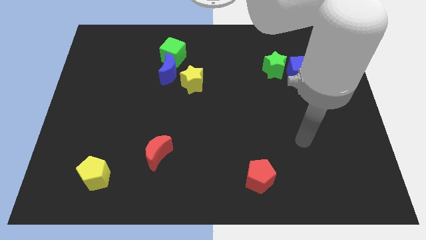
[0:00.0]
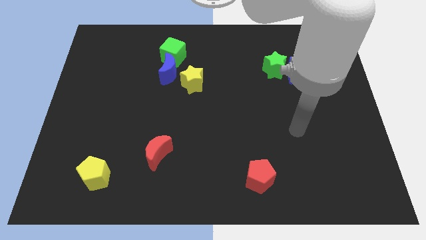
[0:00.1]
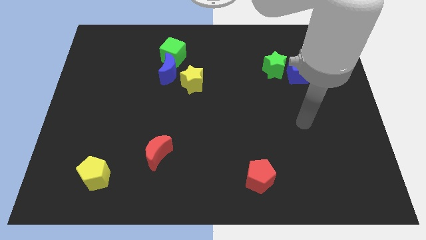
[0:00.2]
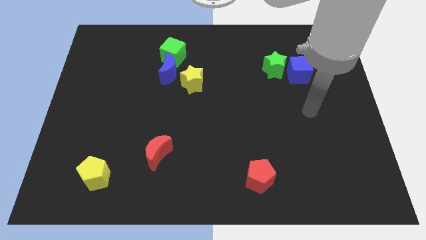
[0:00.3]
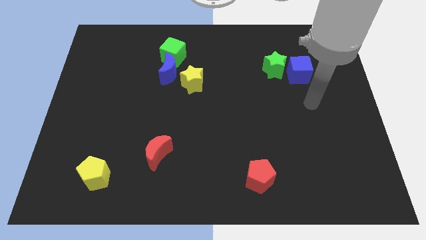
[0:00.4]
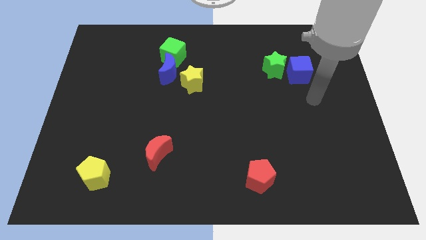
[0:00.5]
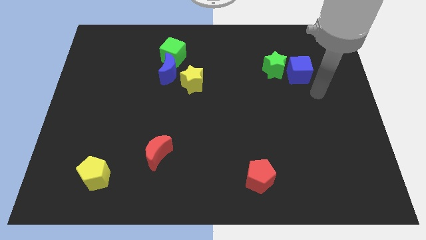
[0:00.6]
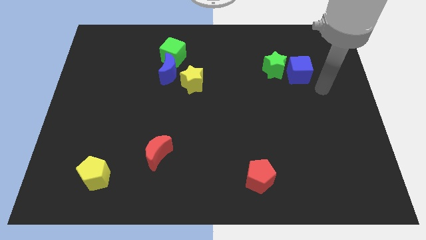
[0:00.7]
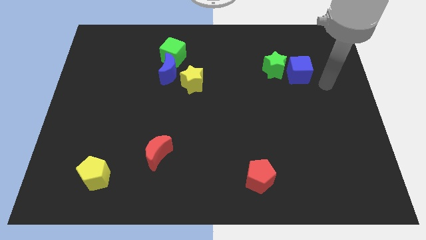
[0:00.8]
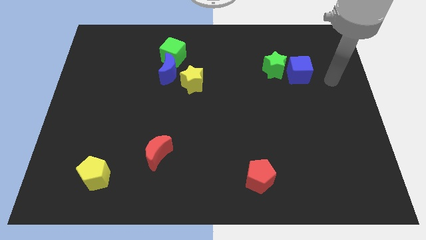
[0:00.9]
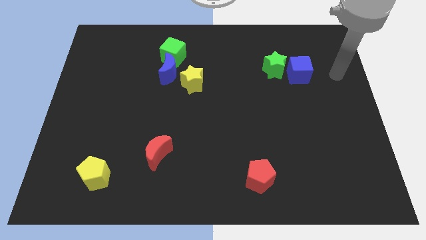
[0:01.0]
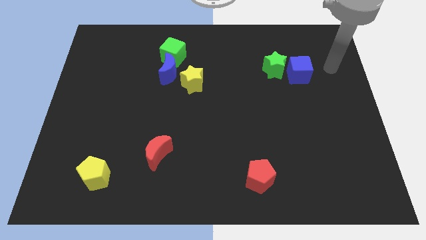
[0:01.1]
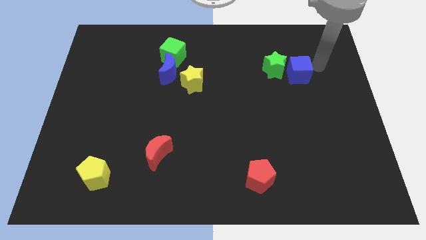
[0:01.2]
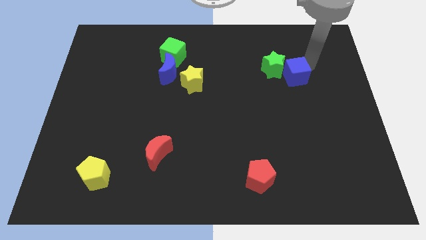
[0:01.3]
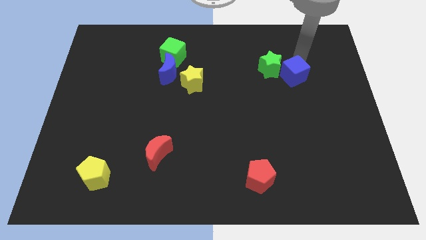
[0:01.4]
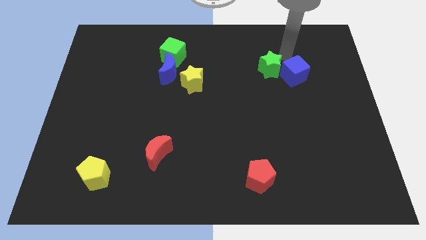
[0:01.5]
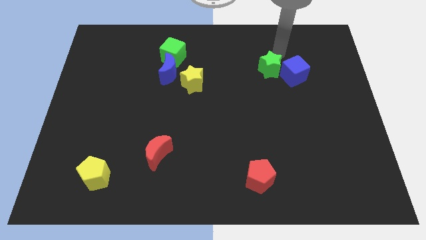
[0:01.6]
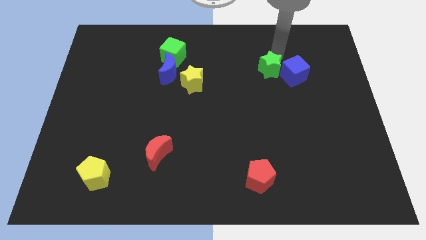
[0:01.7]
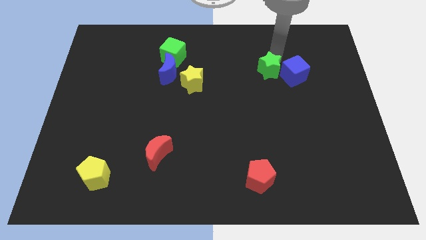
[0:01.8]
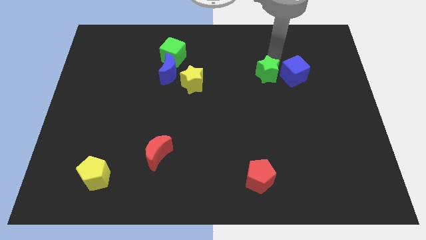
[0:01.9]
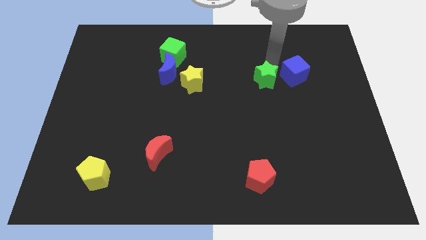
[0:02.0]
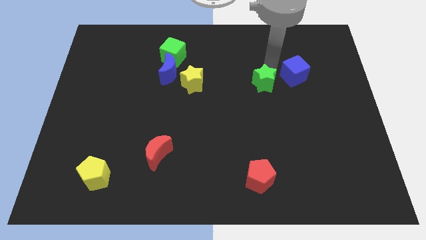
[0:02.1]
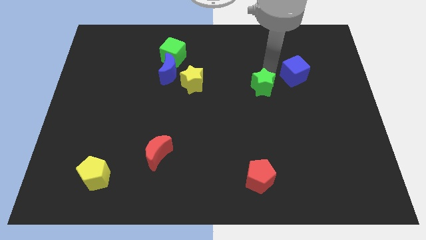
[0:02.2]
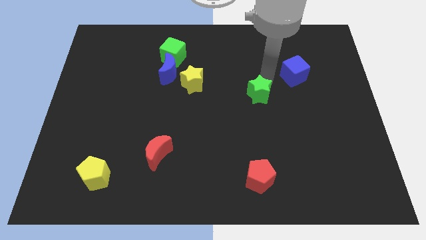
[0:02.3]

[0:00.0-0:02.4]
push the green star somewhat downwards and then left

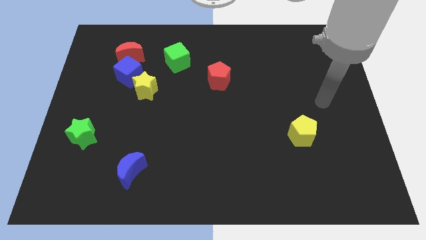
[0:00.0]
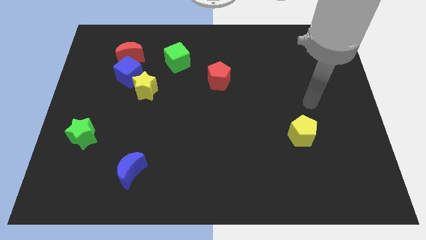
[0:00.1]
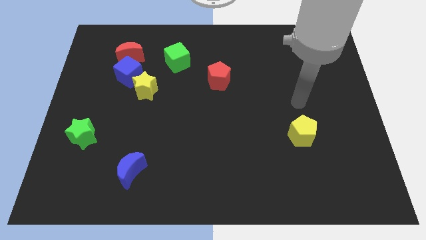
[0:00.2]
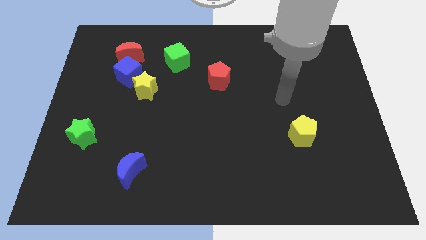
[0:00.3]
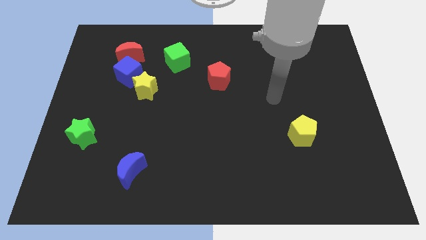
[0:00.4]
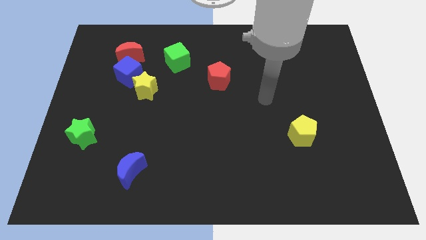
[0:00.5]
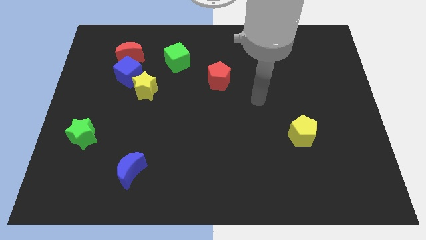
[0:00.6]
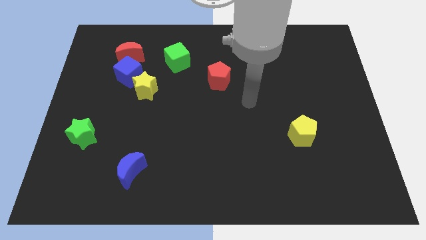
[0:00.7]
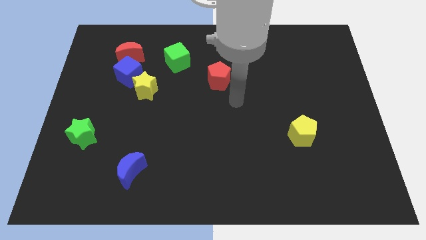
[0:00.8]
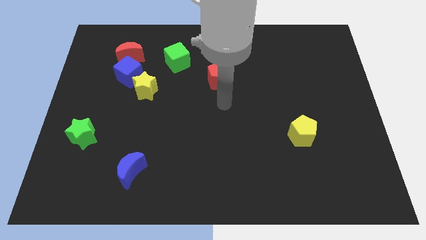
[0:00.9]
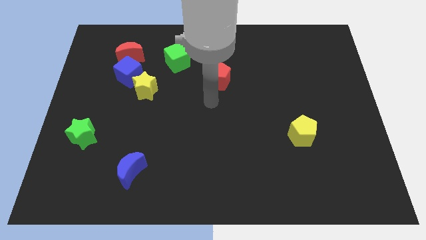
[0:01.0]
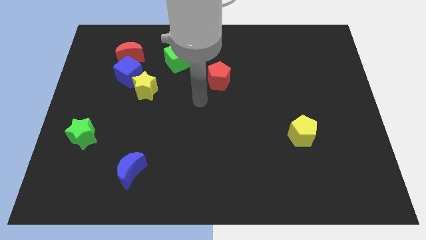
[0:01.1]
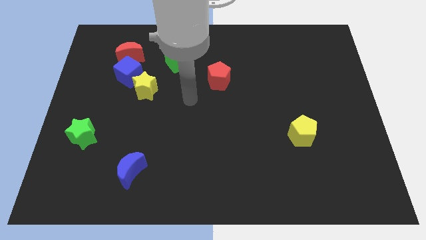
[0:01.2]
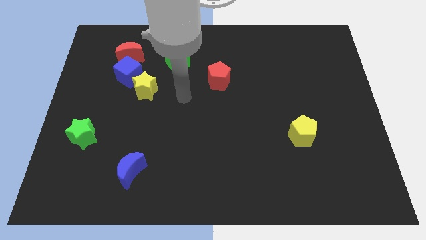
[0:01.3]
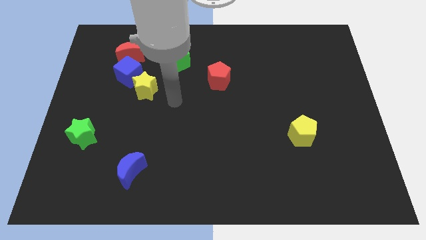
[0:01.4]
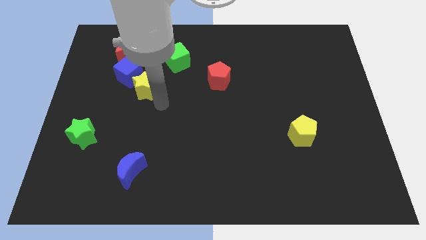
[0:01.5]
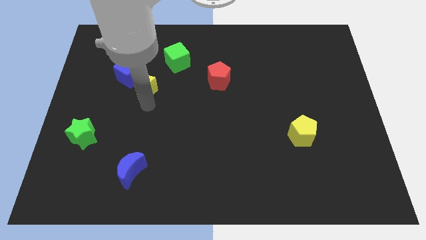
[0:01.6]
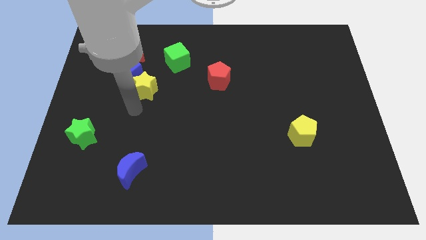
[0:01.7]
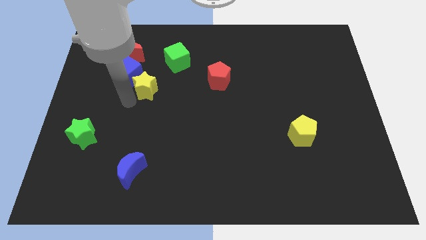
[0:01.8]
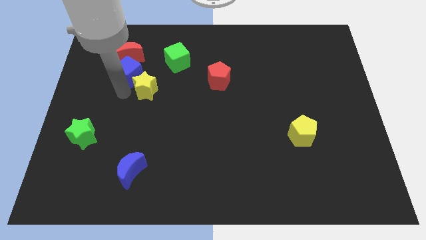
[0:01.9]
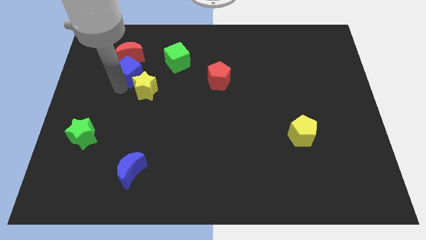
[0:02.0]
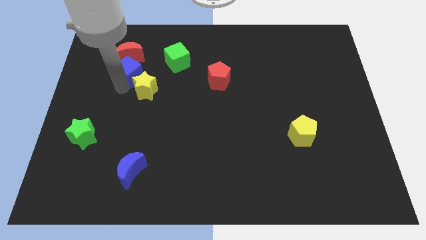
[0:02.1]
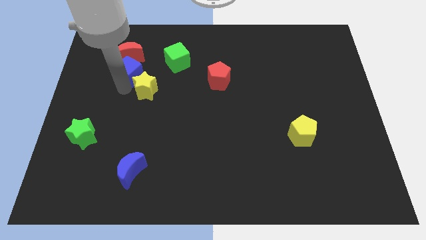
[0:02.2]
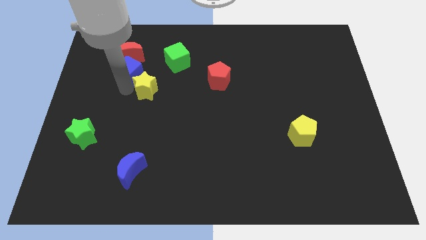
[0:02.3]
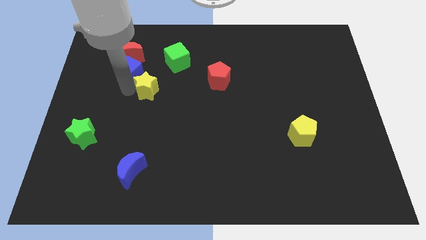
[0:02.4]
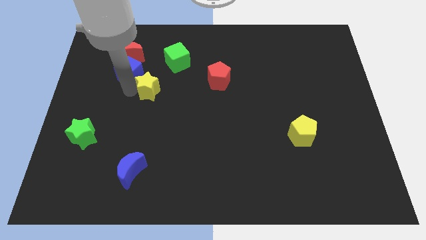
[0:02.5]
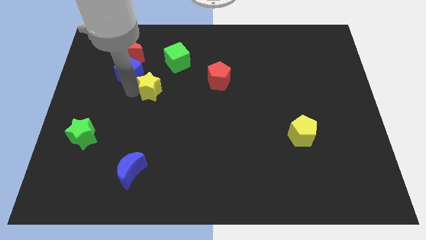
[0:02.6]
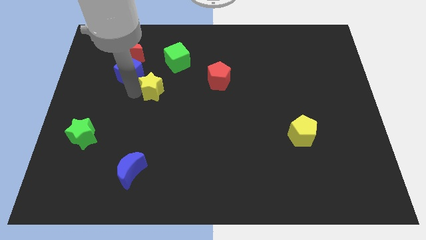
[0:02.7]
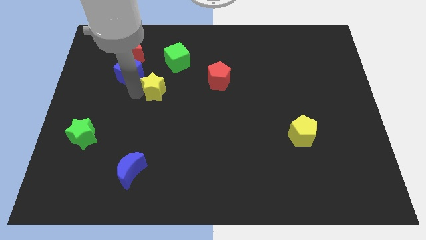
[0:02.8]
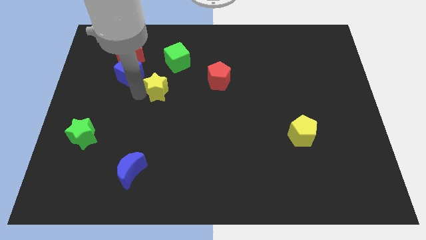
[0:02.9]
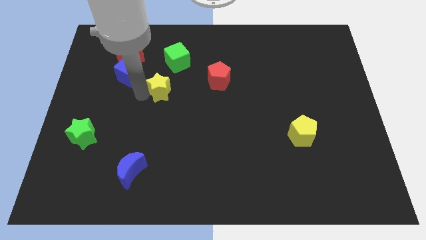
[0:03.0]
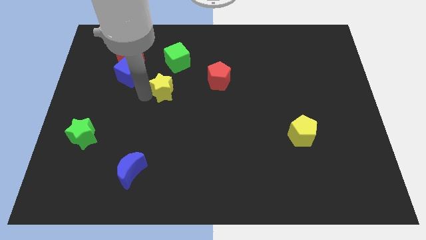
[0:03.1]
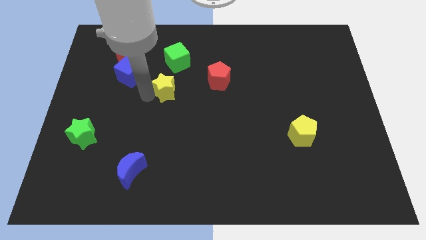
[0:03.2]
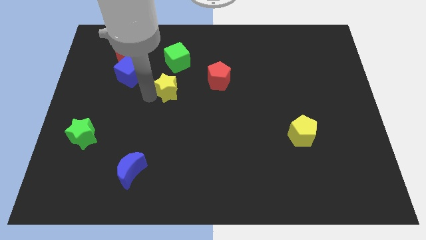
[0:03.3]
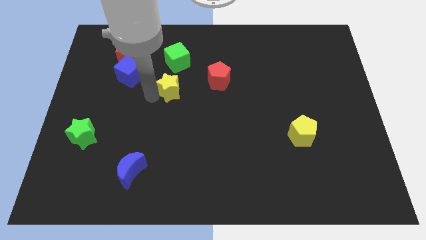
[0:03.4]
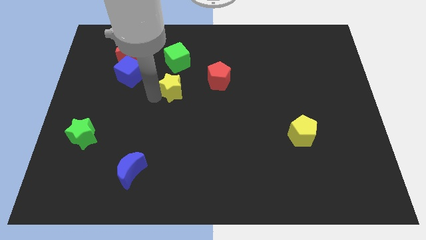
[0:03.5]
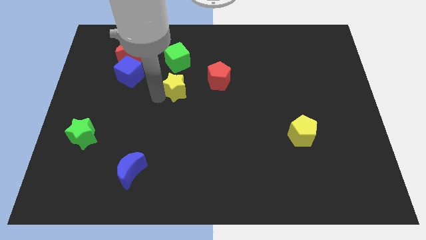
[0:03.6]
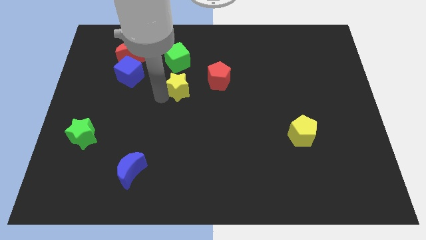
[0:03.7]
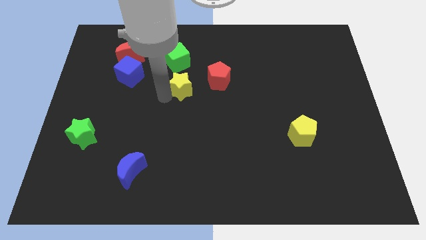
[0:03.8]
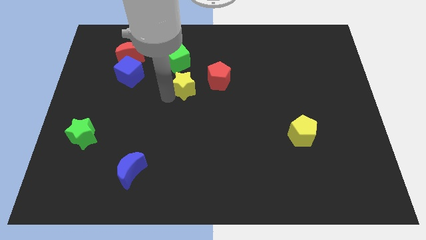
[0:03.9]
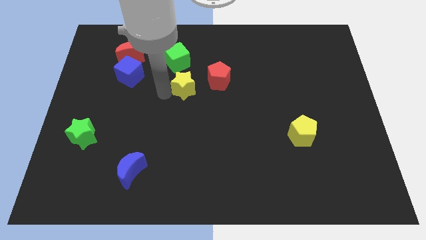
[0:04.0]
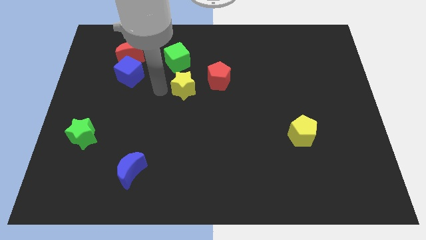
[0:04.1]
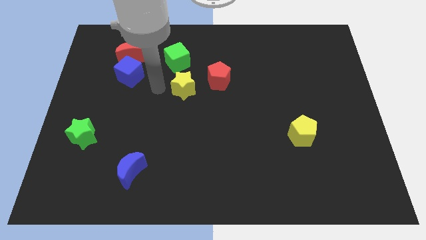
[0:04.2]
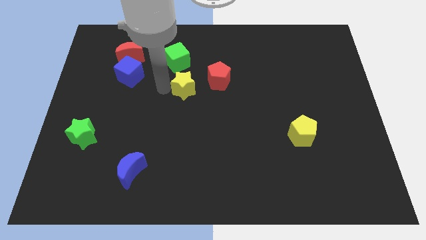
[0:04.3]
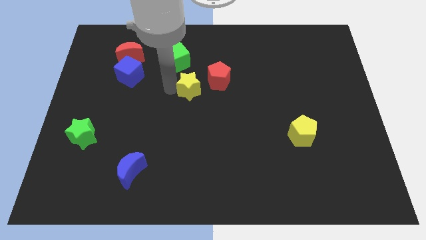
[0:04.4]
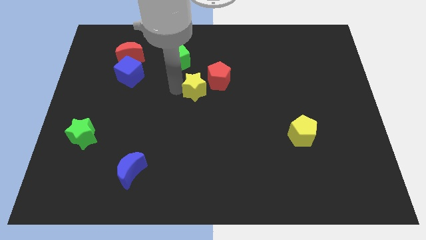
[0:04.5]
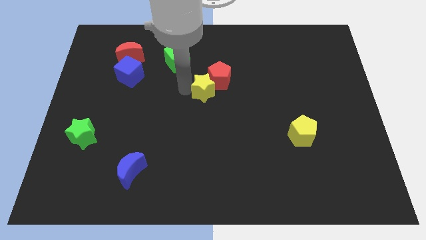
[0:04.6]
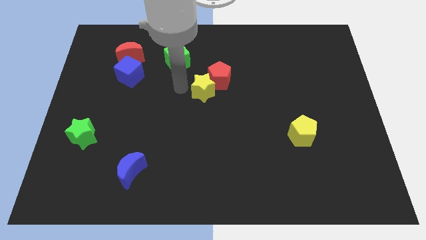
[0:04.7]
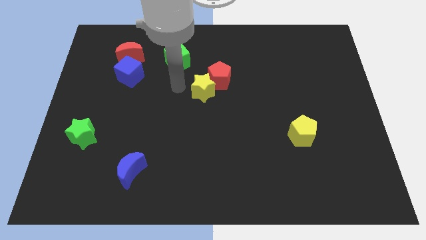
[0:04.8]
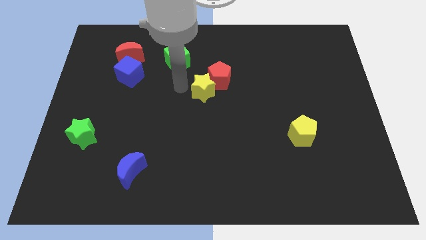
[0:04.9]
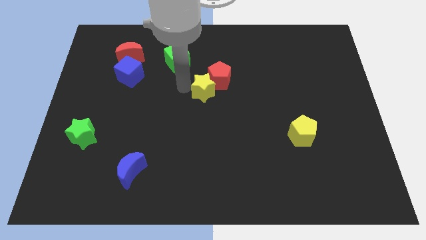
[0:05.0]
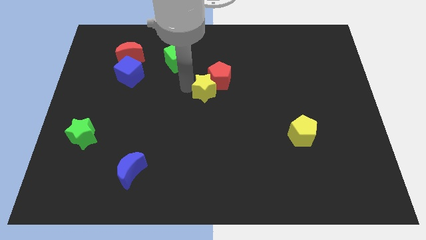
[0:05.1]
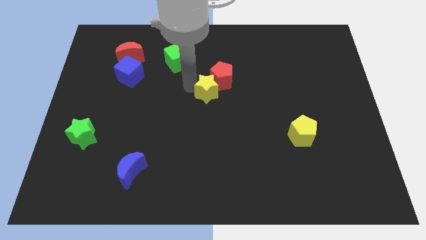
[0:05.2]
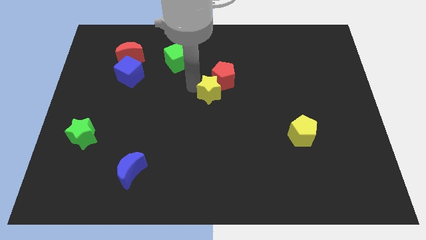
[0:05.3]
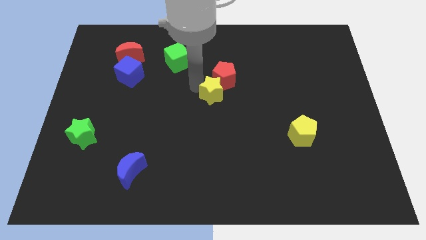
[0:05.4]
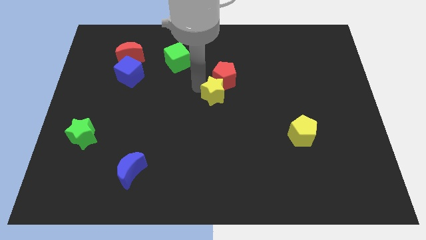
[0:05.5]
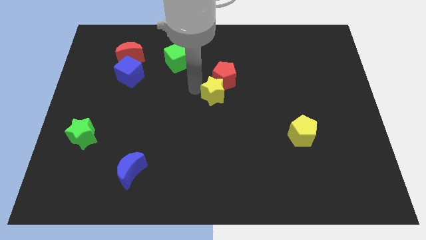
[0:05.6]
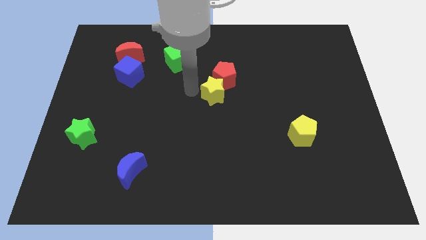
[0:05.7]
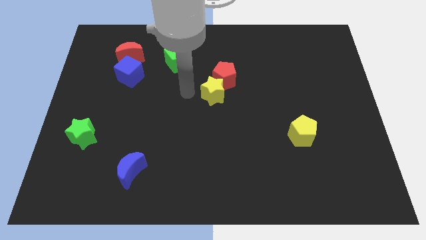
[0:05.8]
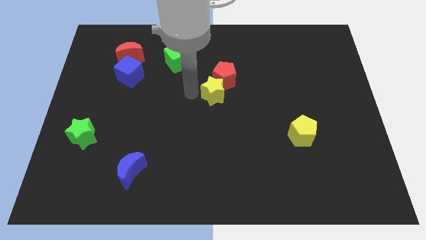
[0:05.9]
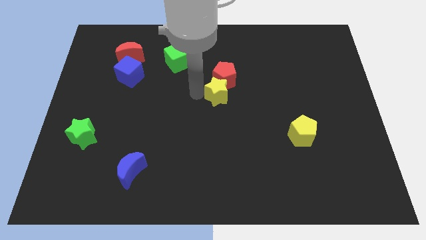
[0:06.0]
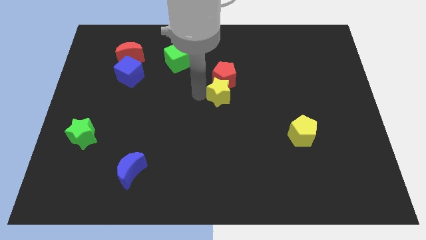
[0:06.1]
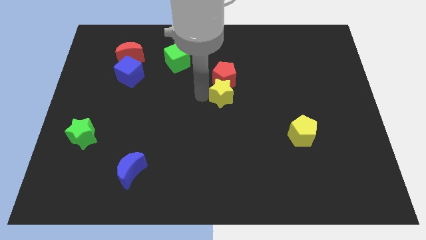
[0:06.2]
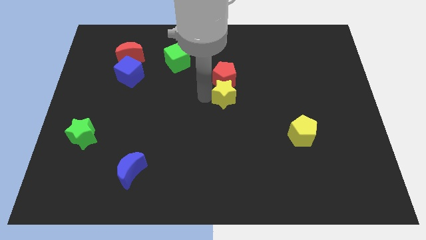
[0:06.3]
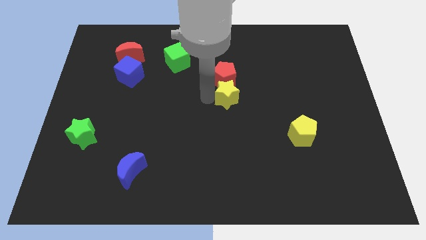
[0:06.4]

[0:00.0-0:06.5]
slide the yellow star right
